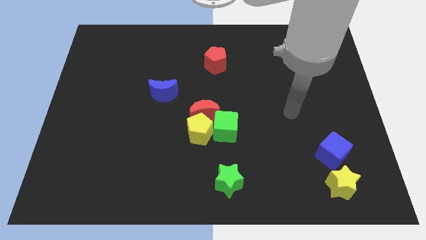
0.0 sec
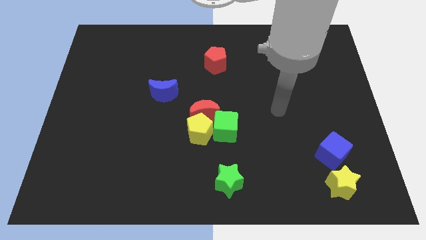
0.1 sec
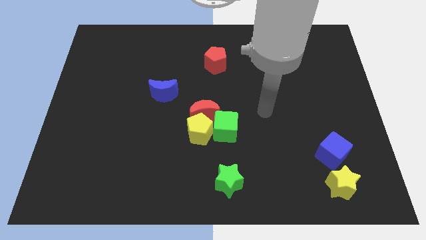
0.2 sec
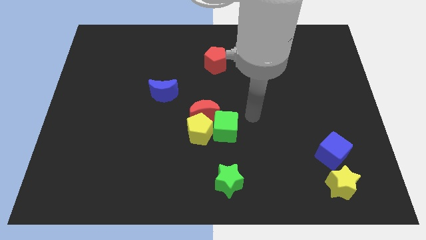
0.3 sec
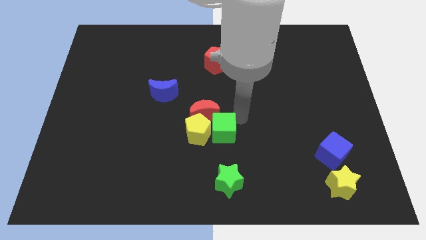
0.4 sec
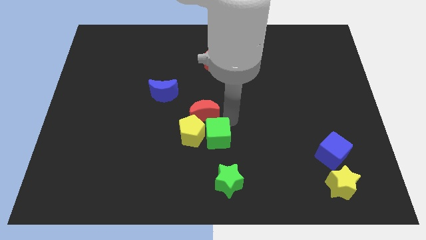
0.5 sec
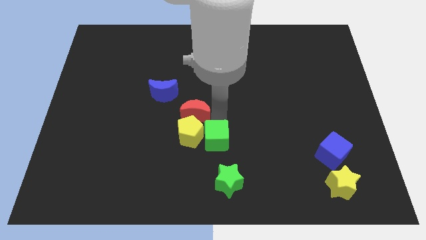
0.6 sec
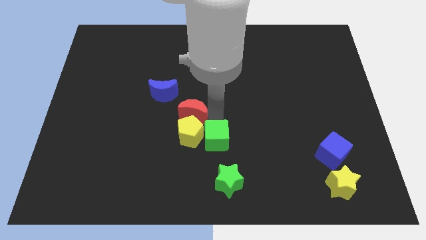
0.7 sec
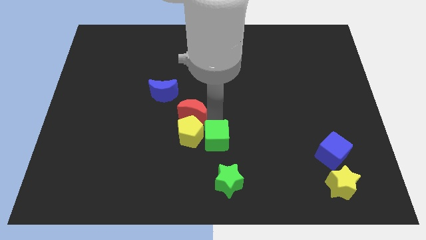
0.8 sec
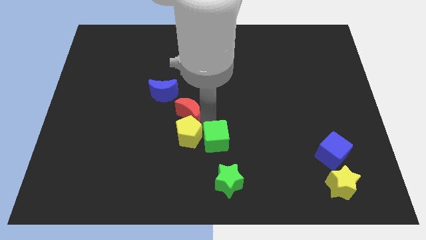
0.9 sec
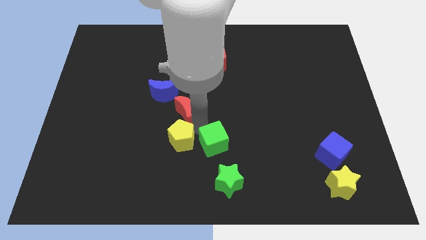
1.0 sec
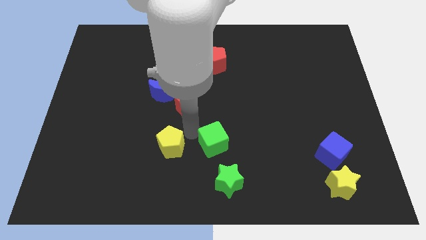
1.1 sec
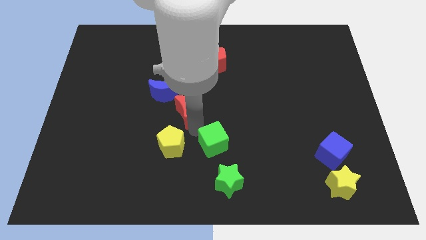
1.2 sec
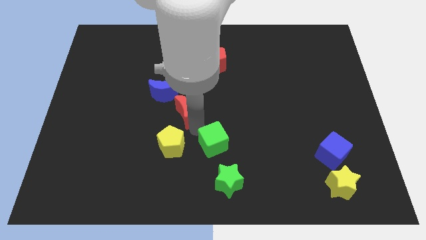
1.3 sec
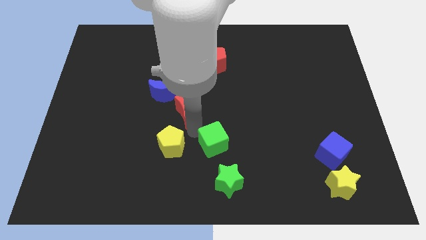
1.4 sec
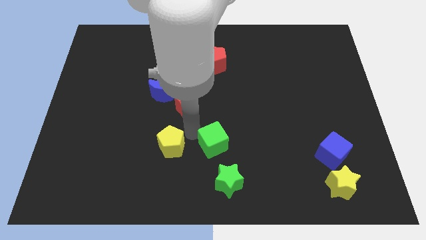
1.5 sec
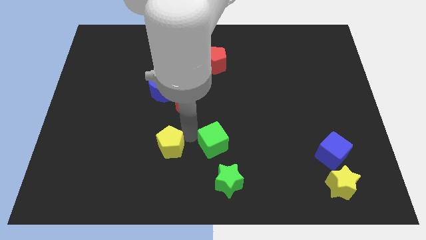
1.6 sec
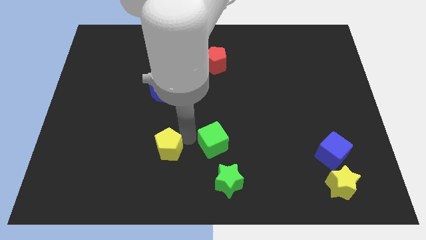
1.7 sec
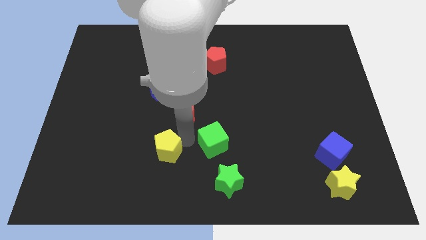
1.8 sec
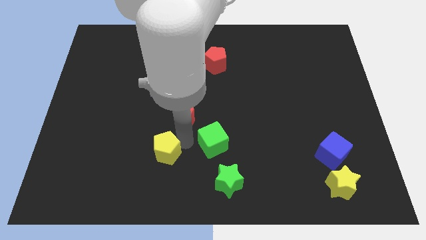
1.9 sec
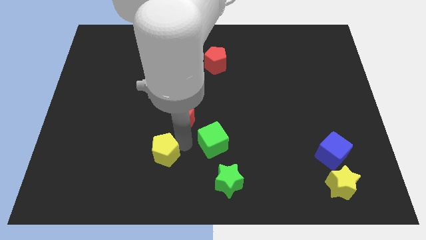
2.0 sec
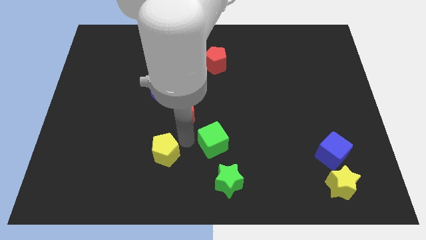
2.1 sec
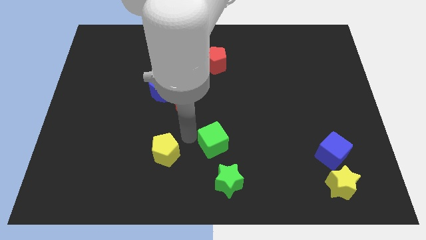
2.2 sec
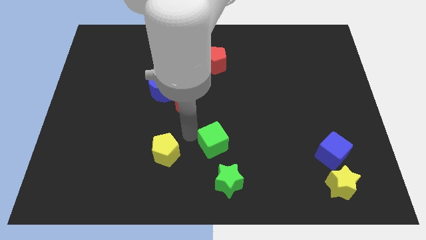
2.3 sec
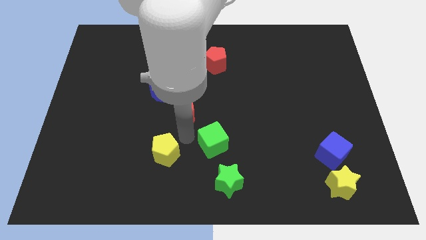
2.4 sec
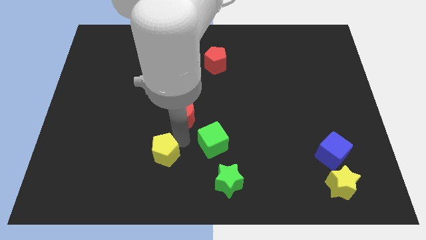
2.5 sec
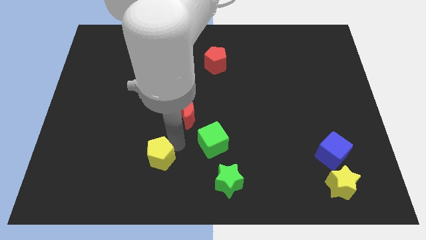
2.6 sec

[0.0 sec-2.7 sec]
move the yellow pentagon away from the red moon and green cube

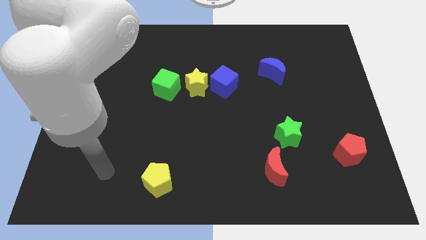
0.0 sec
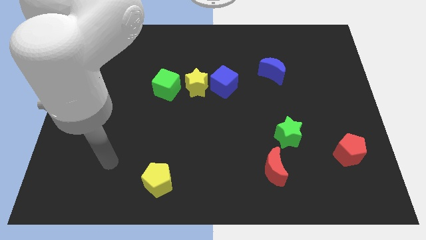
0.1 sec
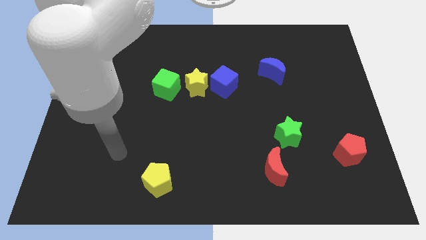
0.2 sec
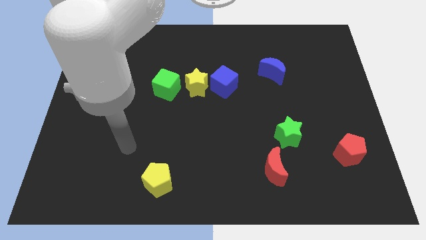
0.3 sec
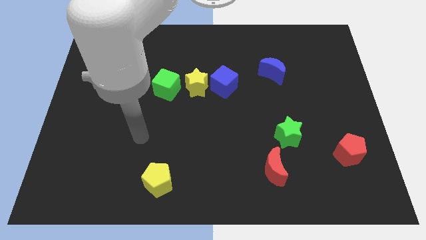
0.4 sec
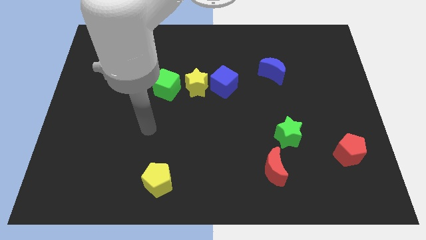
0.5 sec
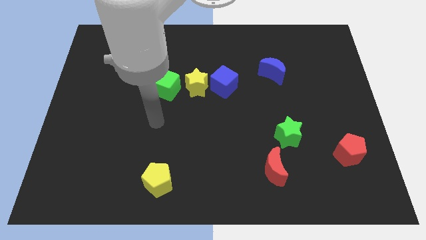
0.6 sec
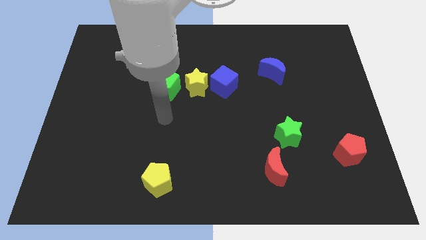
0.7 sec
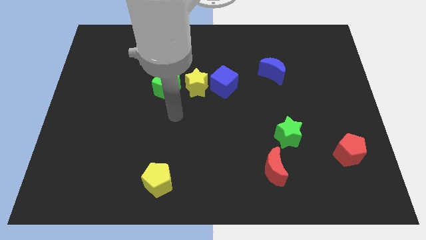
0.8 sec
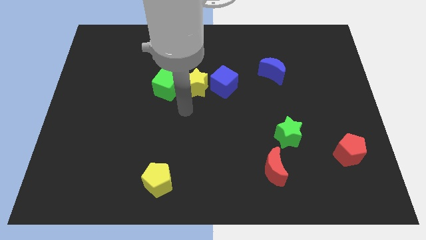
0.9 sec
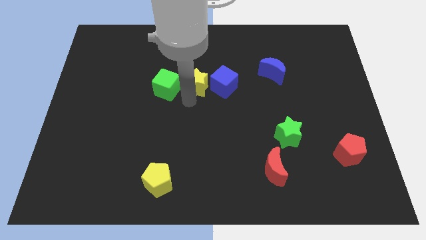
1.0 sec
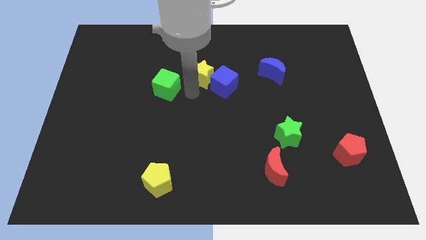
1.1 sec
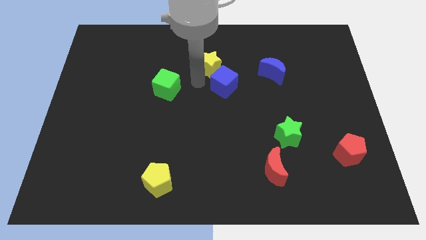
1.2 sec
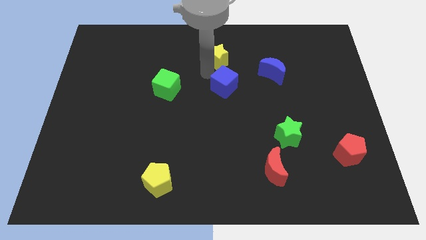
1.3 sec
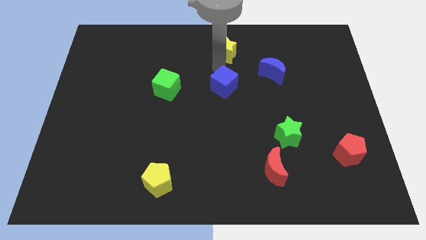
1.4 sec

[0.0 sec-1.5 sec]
pull the blue cube apart from the yellow star

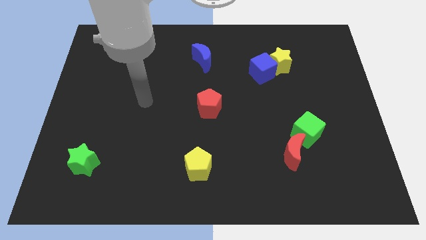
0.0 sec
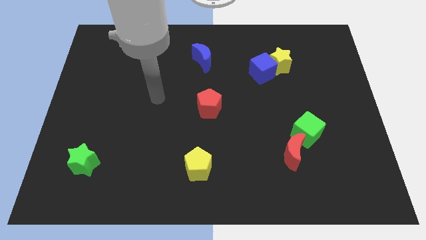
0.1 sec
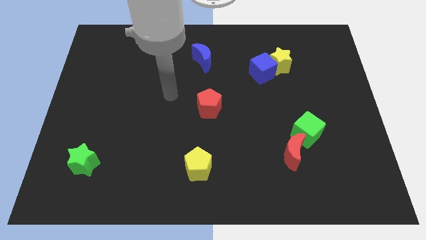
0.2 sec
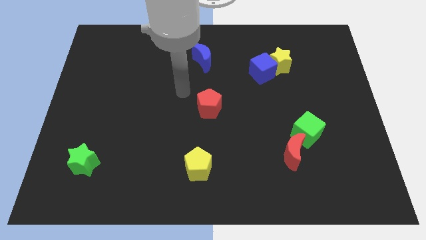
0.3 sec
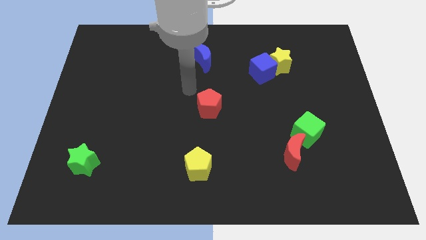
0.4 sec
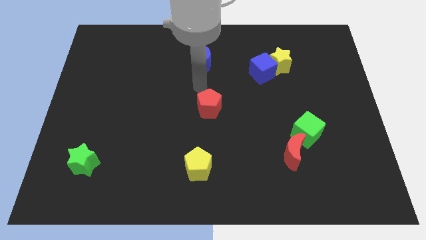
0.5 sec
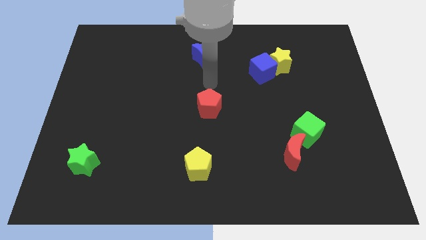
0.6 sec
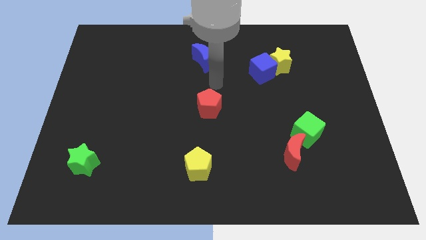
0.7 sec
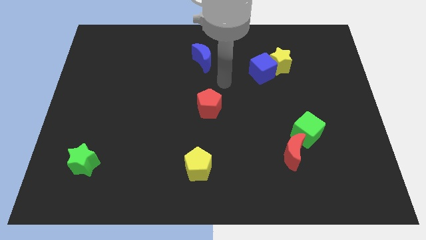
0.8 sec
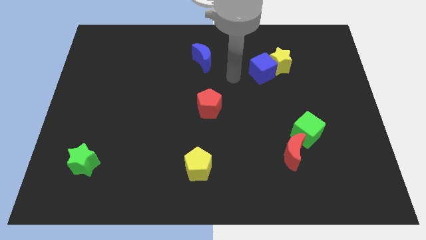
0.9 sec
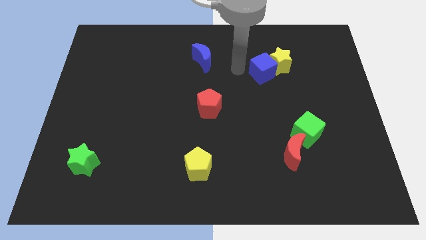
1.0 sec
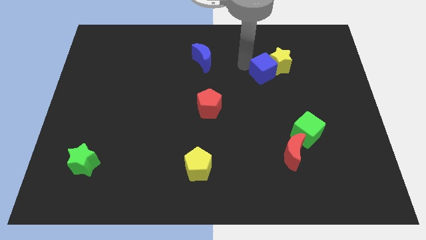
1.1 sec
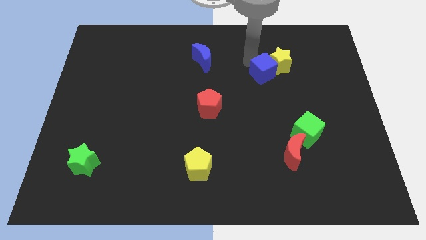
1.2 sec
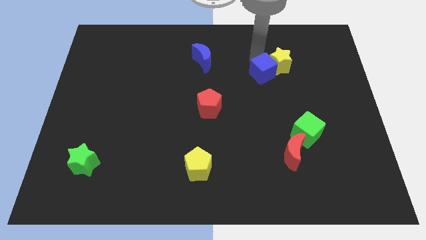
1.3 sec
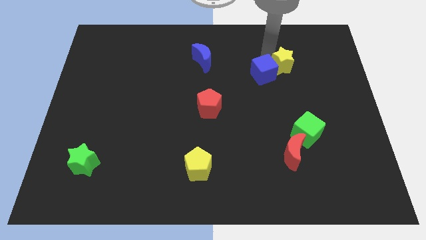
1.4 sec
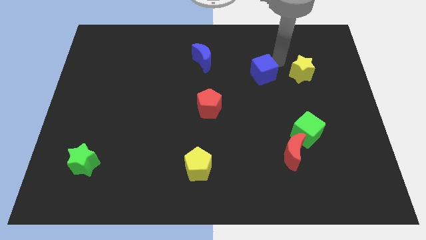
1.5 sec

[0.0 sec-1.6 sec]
separate the blue cube from the yellow star

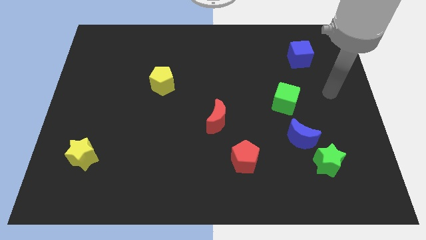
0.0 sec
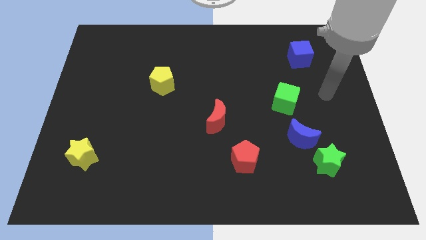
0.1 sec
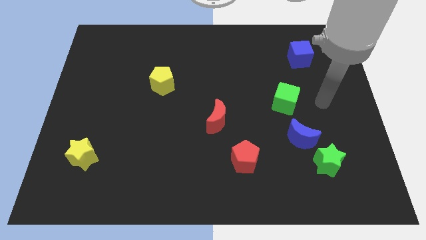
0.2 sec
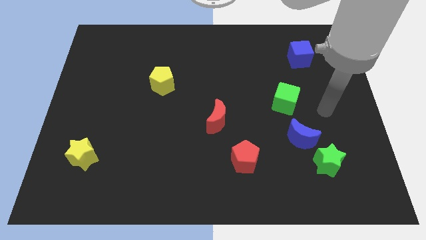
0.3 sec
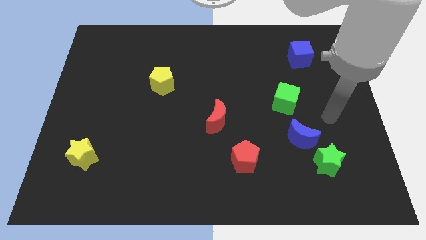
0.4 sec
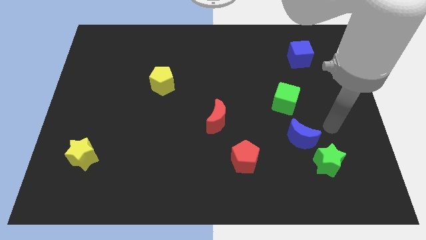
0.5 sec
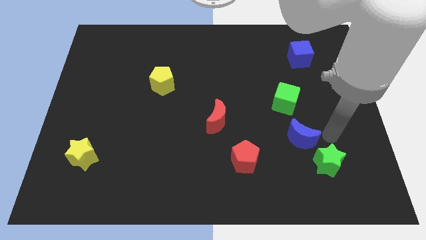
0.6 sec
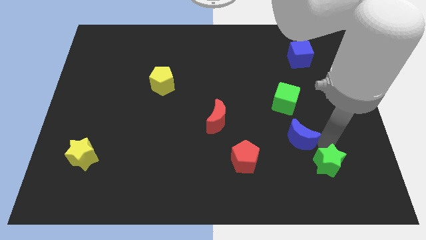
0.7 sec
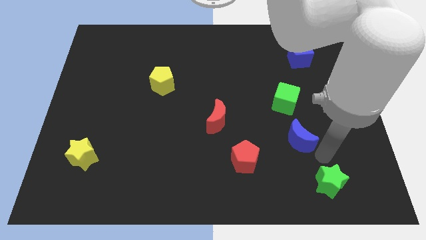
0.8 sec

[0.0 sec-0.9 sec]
pull the blue moon apart from the green star

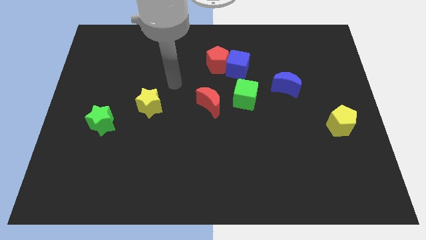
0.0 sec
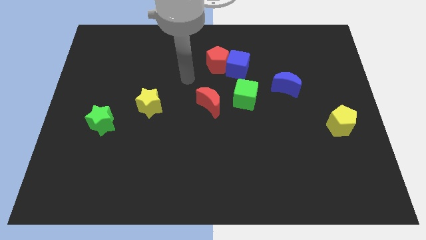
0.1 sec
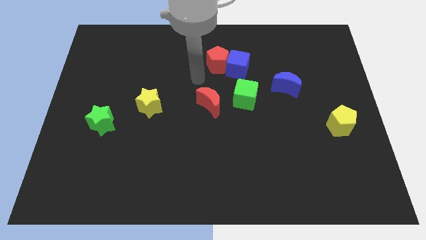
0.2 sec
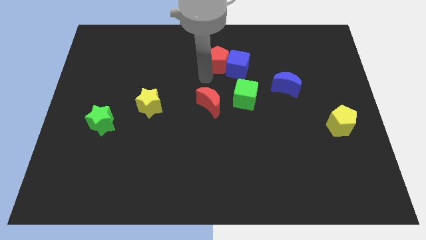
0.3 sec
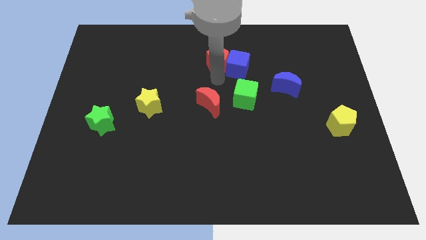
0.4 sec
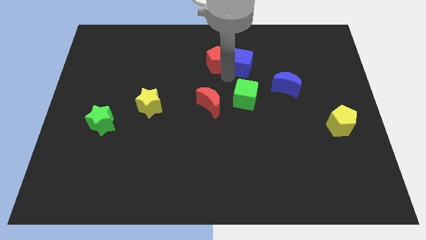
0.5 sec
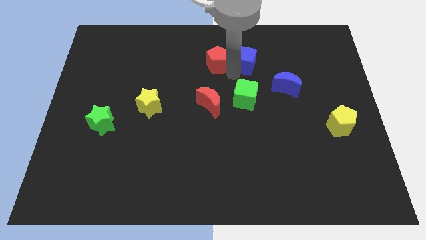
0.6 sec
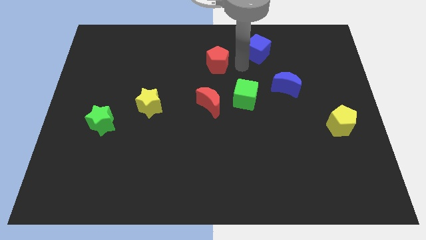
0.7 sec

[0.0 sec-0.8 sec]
separate the red pentagon from the blue cube

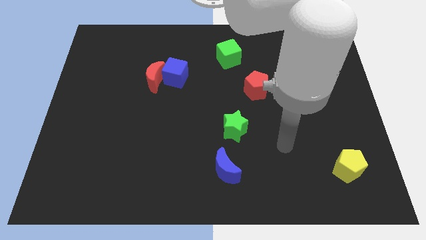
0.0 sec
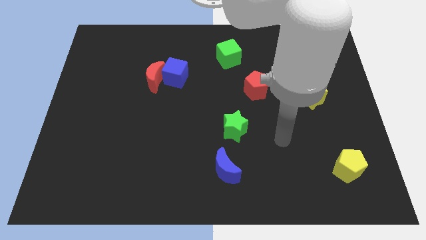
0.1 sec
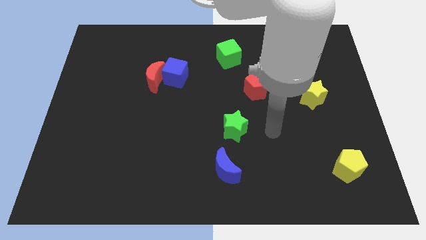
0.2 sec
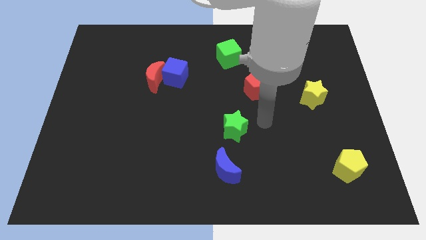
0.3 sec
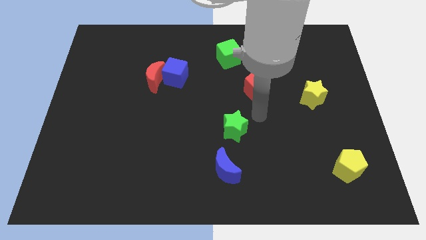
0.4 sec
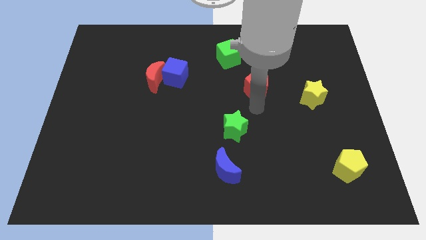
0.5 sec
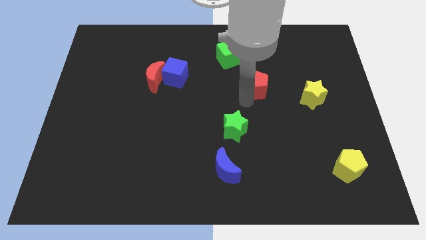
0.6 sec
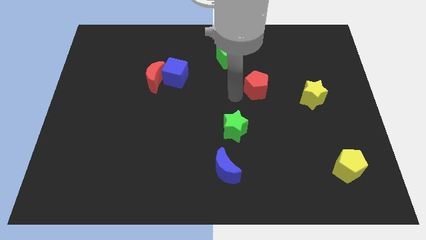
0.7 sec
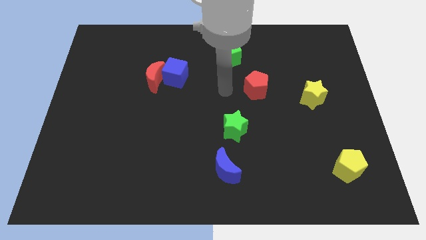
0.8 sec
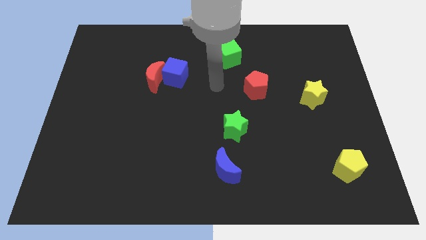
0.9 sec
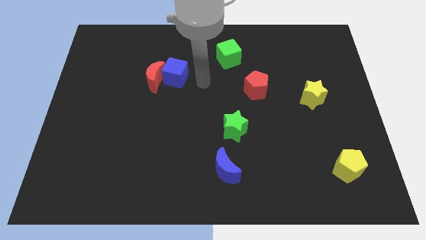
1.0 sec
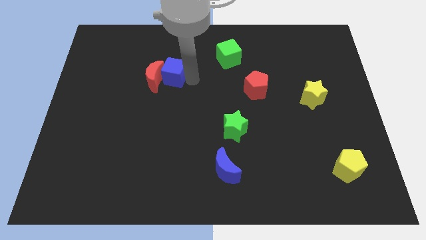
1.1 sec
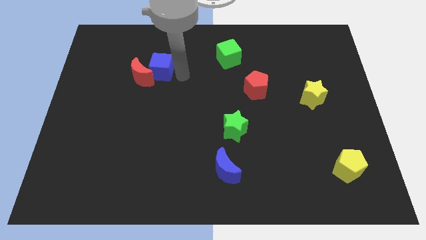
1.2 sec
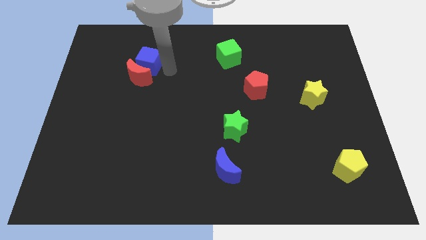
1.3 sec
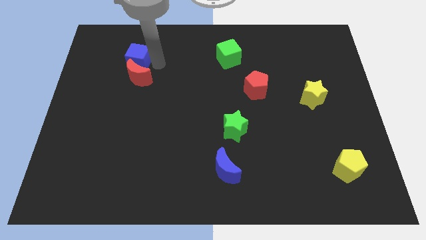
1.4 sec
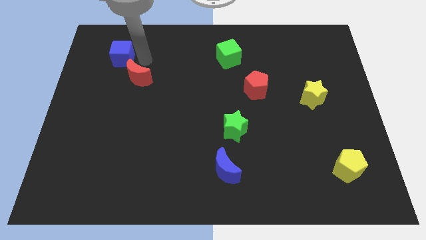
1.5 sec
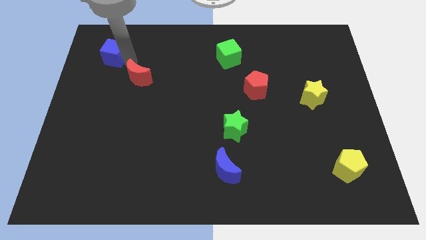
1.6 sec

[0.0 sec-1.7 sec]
move the red moon away from the blue cube
